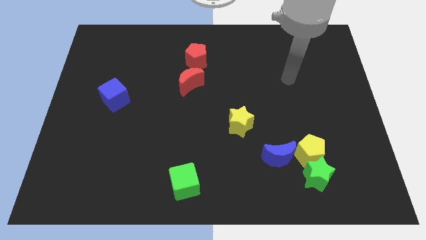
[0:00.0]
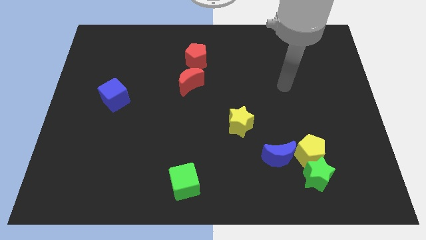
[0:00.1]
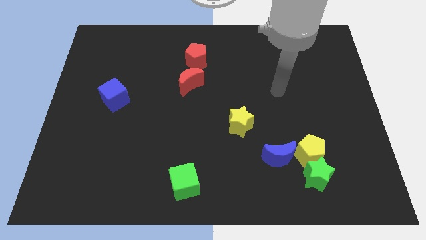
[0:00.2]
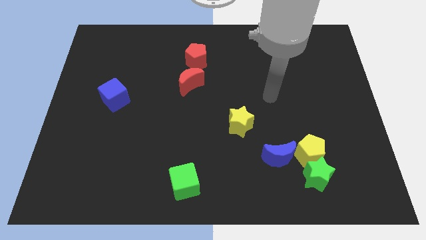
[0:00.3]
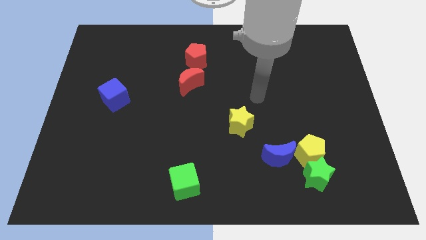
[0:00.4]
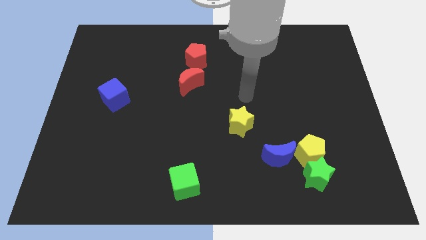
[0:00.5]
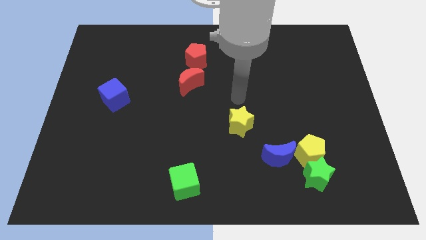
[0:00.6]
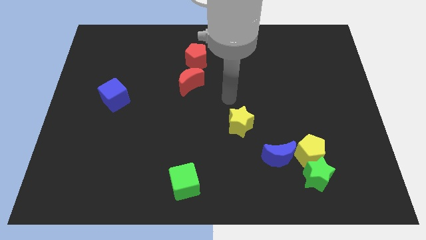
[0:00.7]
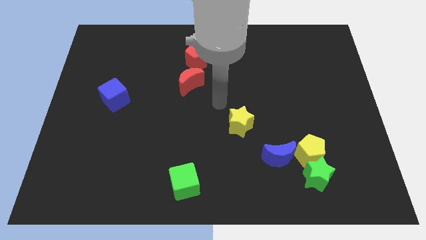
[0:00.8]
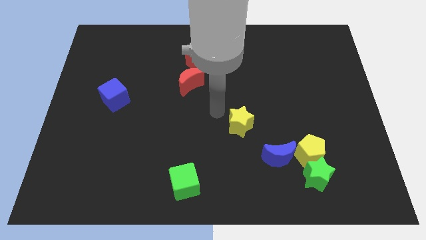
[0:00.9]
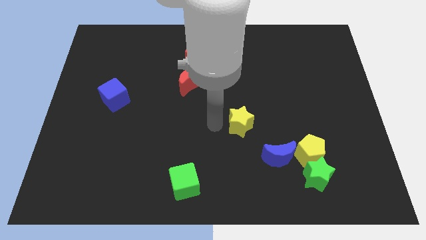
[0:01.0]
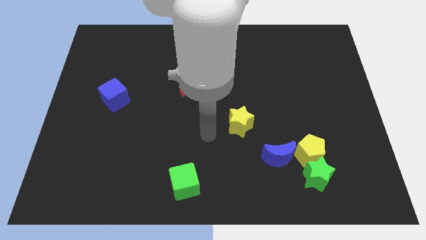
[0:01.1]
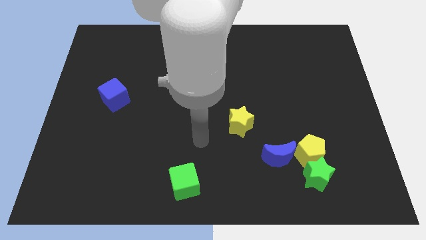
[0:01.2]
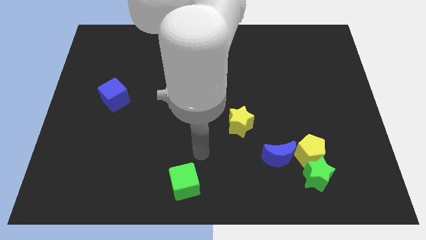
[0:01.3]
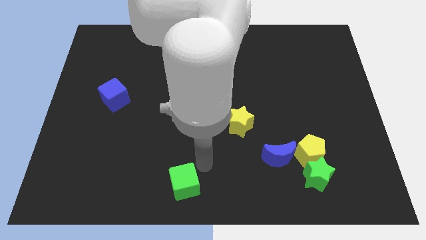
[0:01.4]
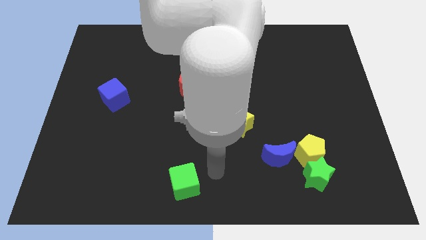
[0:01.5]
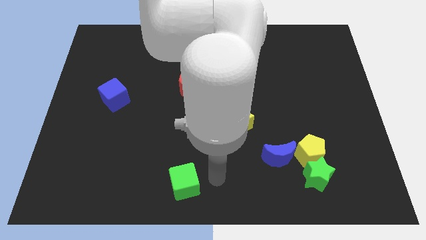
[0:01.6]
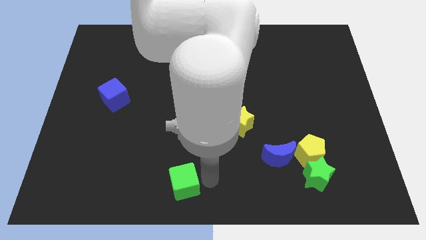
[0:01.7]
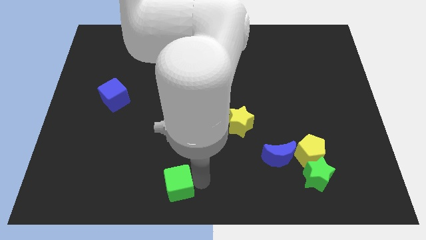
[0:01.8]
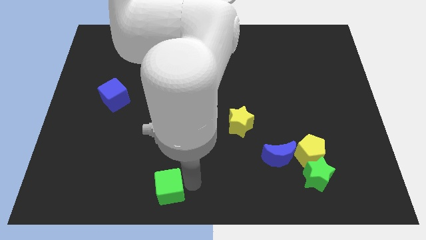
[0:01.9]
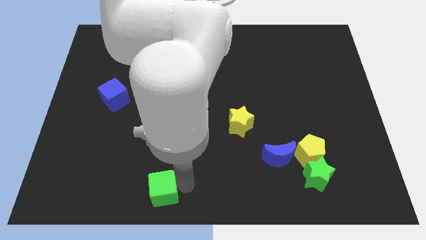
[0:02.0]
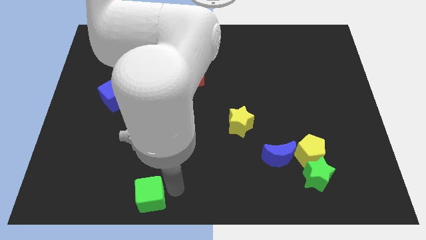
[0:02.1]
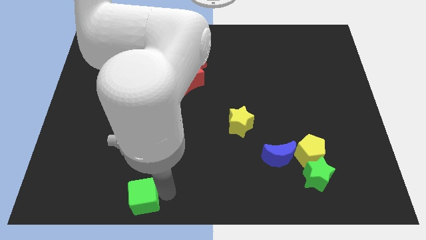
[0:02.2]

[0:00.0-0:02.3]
slightly slide the green cube to the left

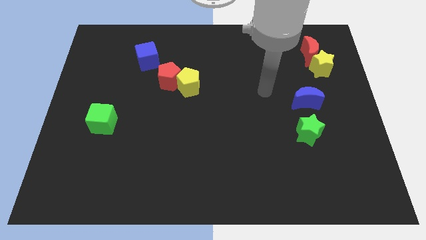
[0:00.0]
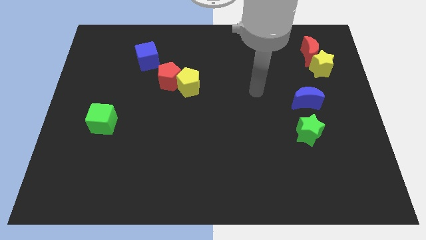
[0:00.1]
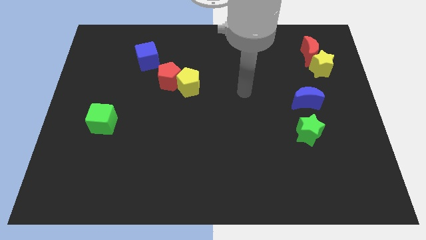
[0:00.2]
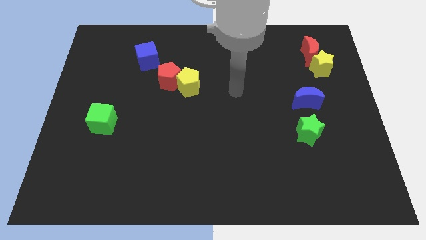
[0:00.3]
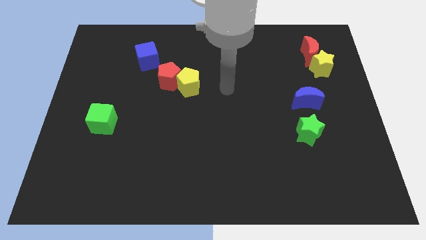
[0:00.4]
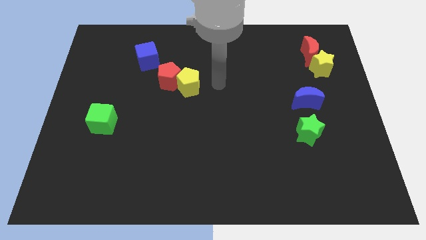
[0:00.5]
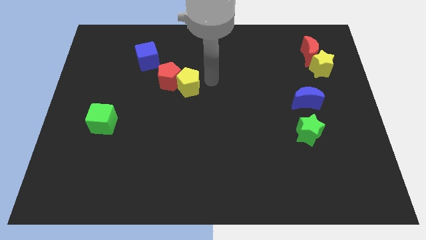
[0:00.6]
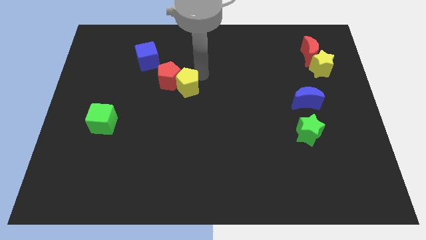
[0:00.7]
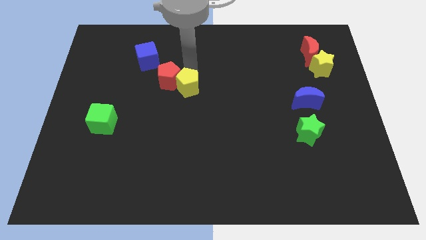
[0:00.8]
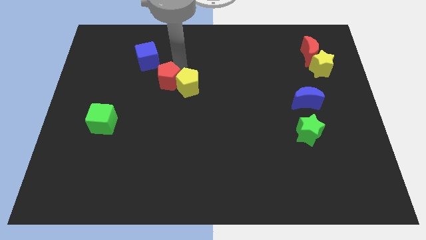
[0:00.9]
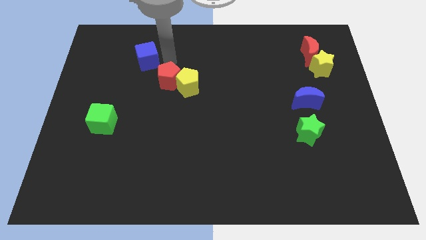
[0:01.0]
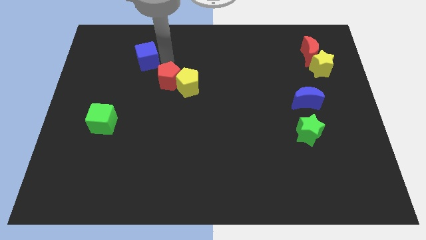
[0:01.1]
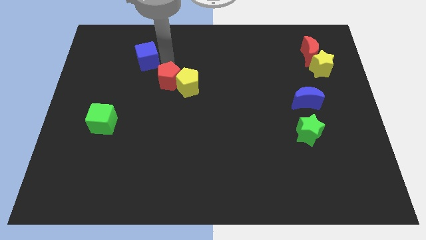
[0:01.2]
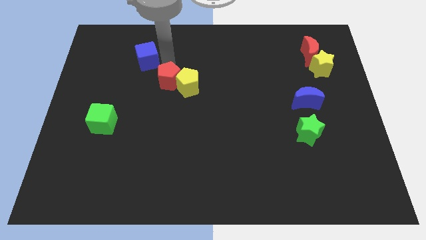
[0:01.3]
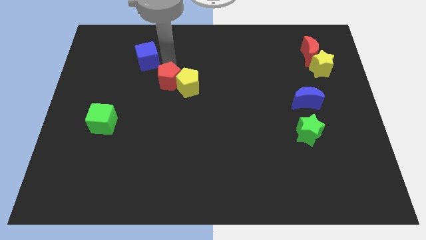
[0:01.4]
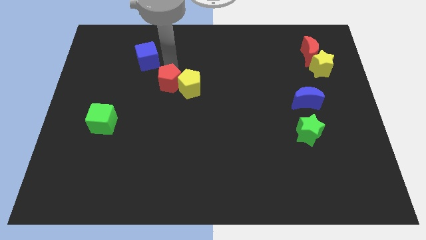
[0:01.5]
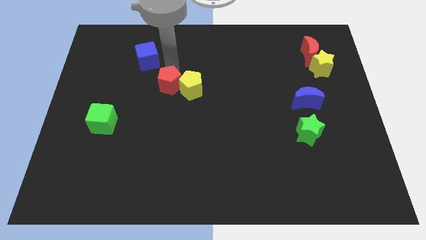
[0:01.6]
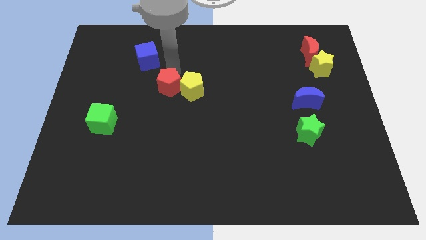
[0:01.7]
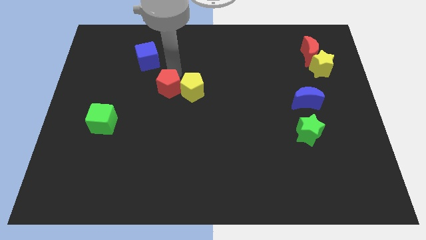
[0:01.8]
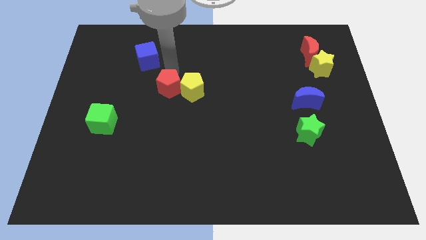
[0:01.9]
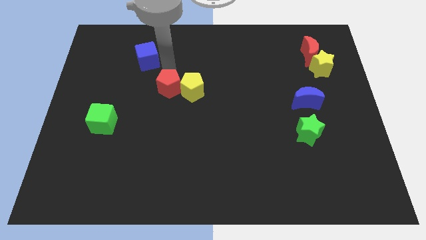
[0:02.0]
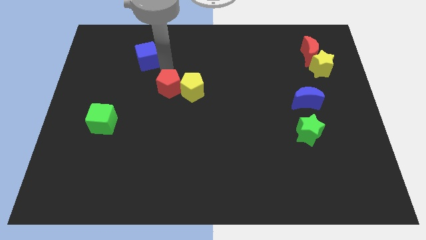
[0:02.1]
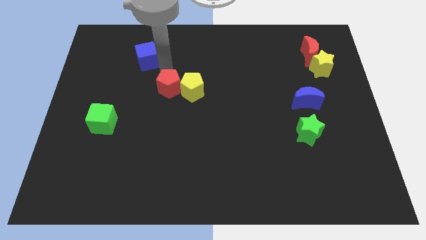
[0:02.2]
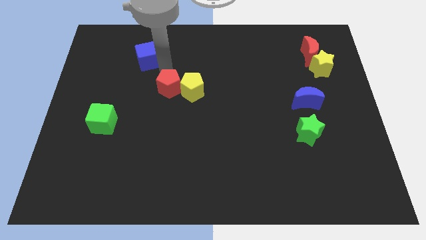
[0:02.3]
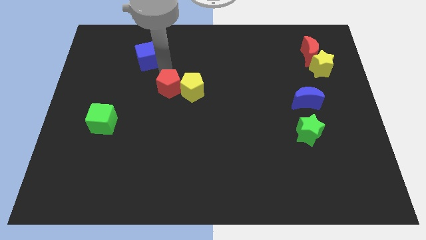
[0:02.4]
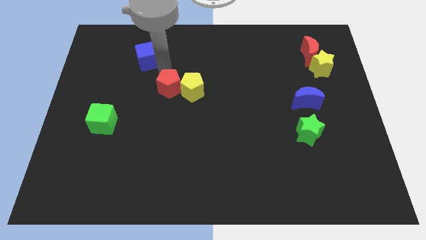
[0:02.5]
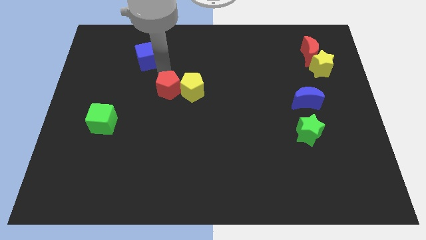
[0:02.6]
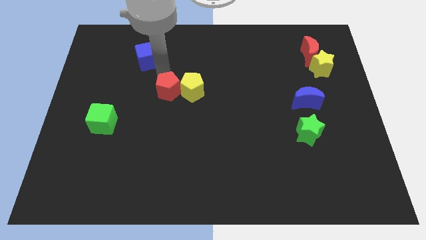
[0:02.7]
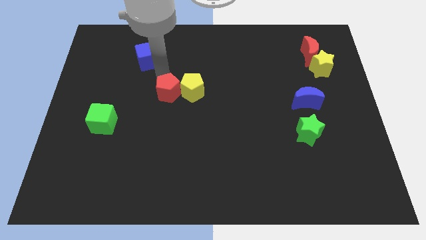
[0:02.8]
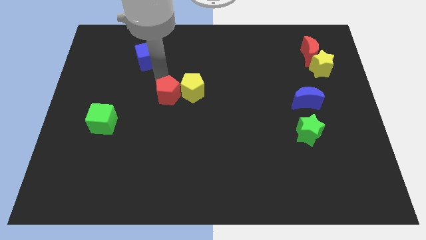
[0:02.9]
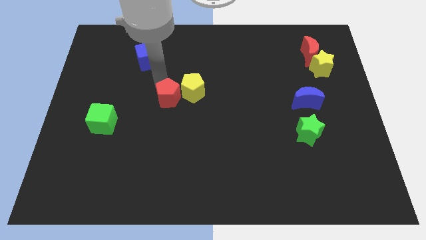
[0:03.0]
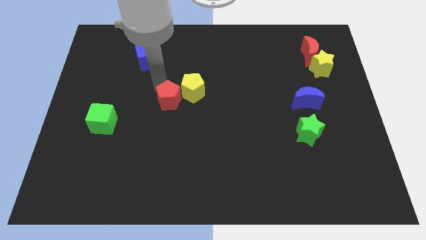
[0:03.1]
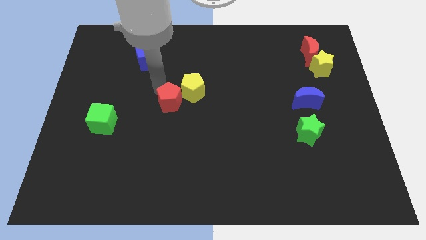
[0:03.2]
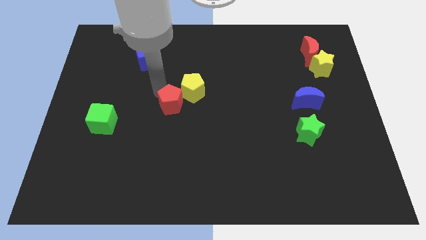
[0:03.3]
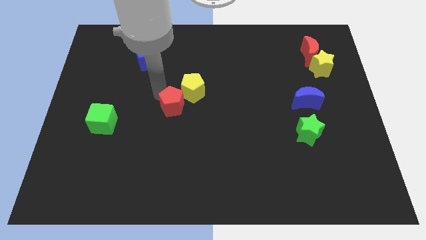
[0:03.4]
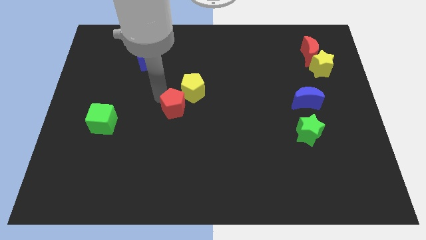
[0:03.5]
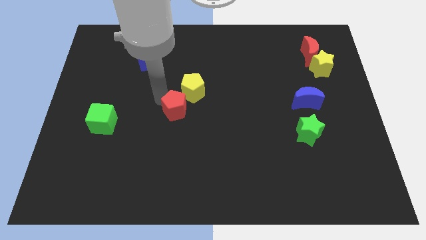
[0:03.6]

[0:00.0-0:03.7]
slide the red pentagon down and then to the right a bit

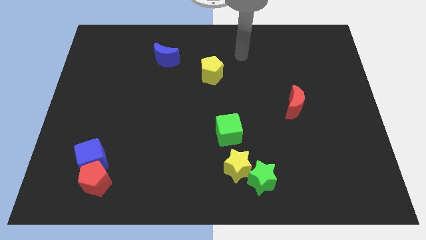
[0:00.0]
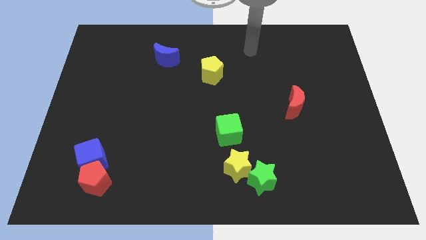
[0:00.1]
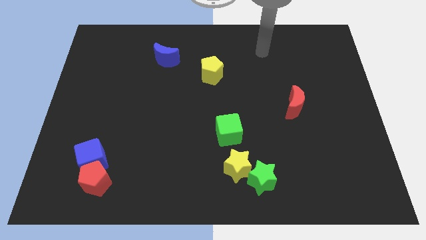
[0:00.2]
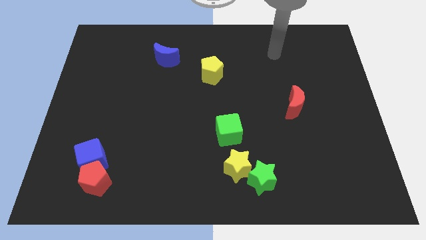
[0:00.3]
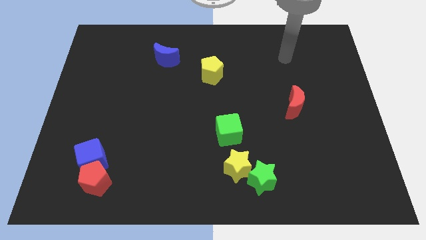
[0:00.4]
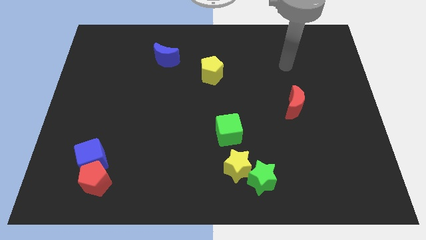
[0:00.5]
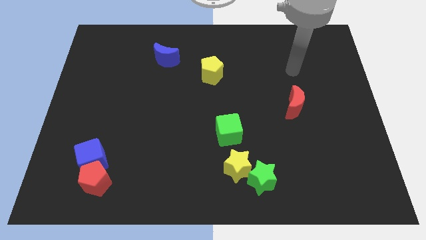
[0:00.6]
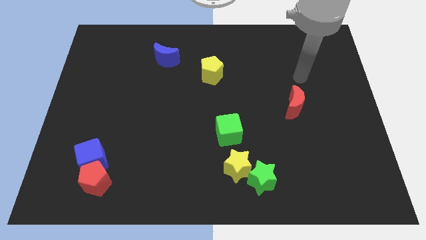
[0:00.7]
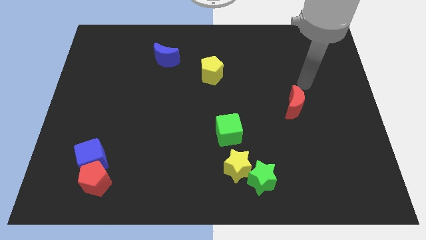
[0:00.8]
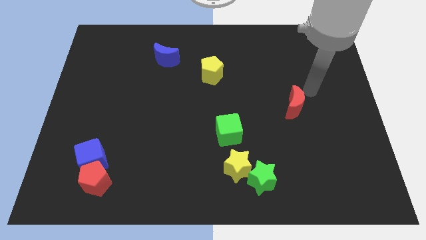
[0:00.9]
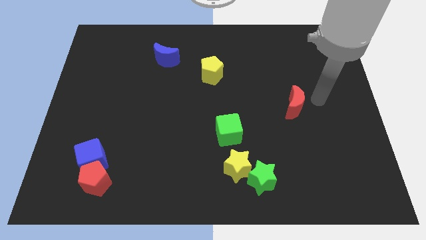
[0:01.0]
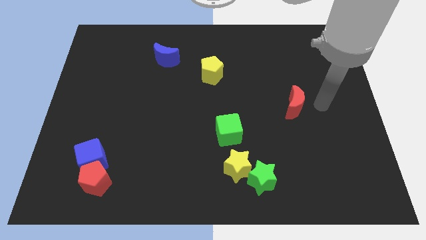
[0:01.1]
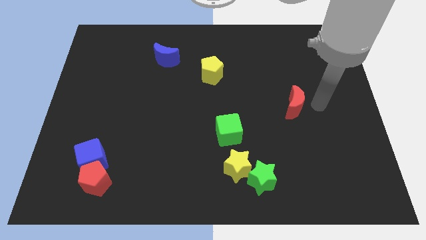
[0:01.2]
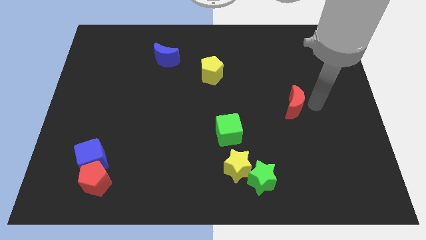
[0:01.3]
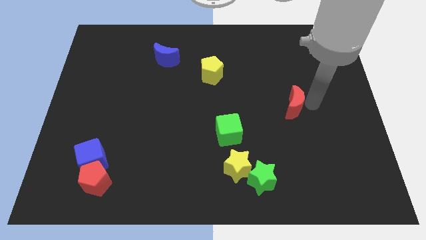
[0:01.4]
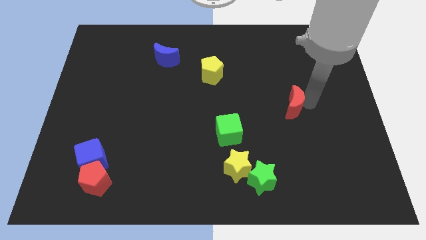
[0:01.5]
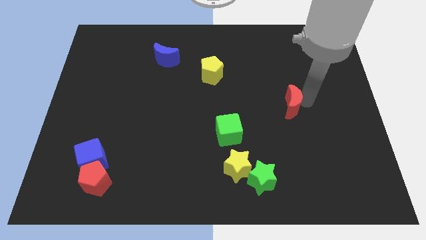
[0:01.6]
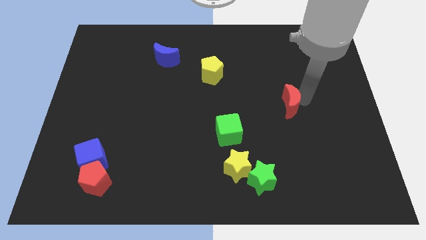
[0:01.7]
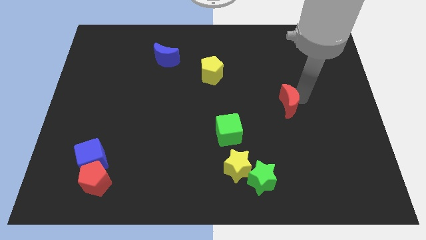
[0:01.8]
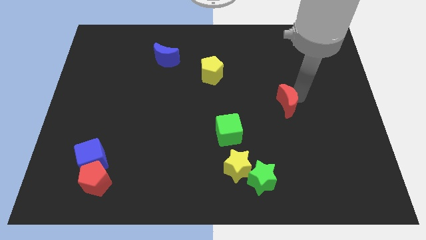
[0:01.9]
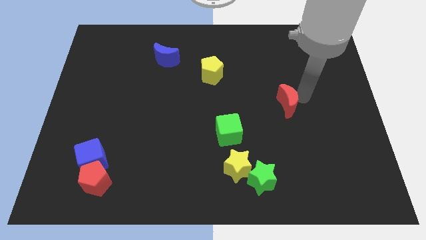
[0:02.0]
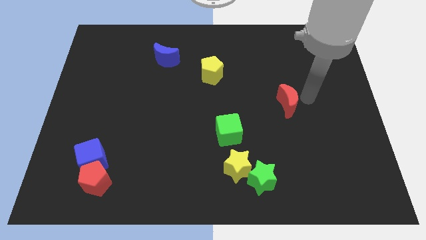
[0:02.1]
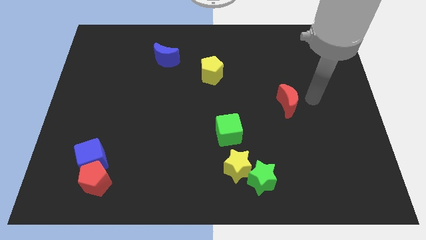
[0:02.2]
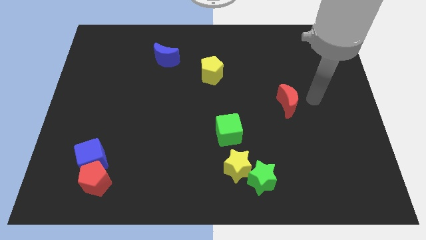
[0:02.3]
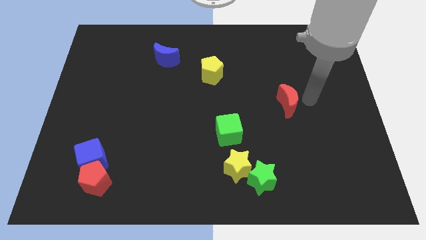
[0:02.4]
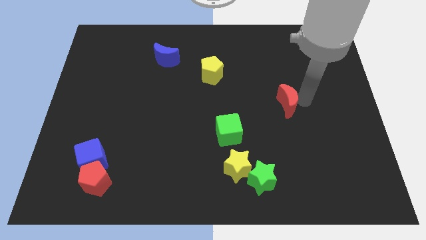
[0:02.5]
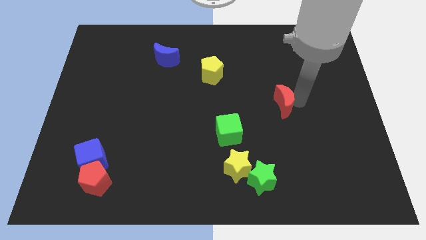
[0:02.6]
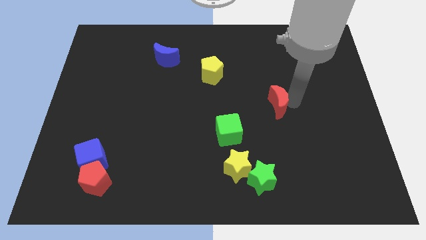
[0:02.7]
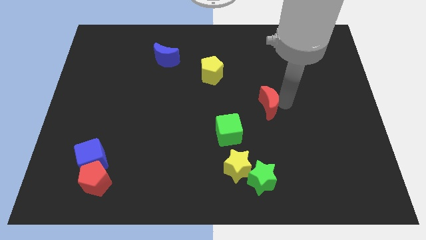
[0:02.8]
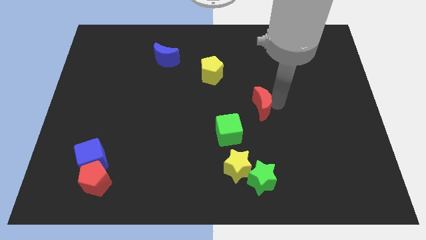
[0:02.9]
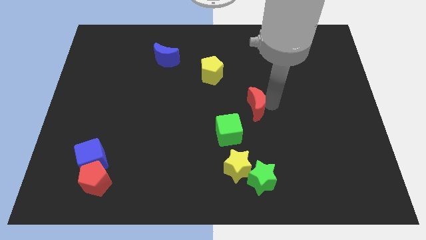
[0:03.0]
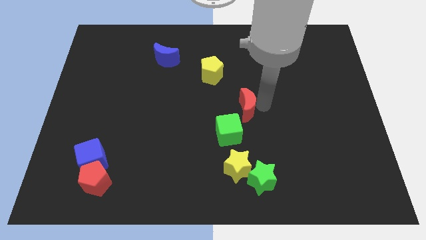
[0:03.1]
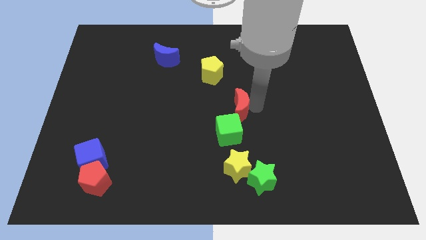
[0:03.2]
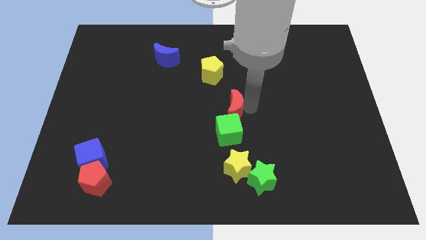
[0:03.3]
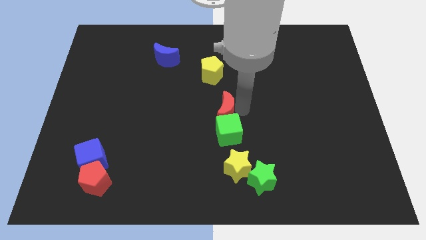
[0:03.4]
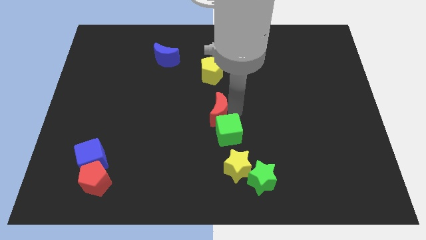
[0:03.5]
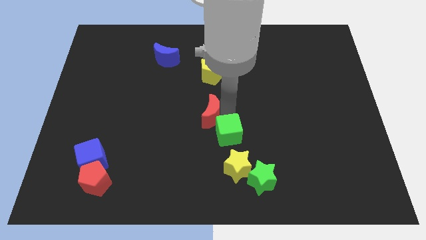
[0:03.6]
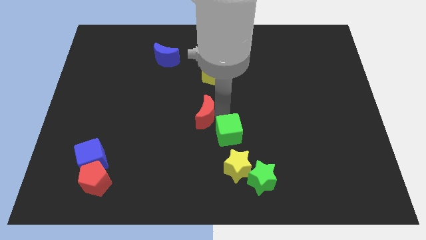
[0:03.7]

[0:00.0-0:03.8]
slide the red moon to the left
